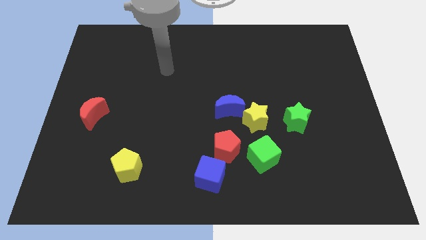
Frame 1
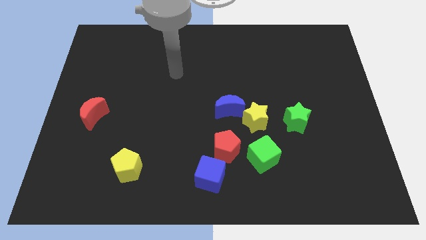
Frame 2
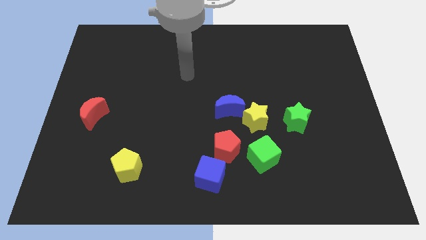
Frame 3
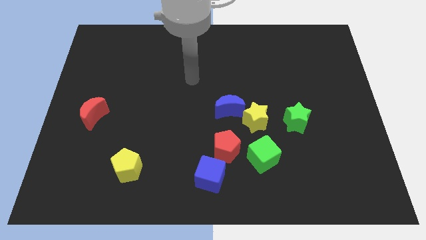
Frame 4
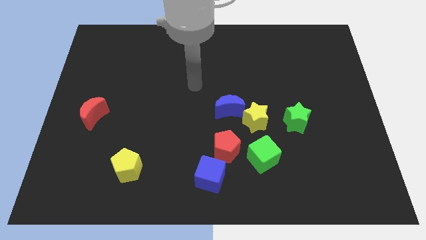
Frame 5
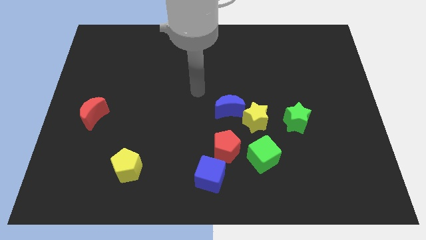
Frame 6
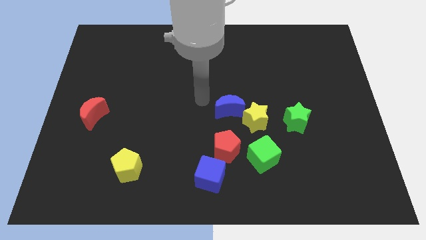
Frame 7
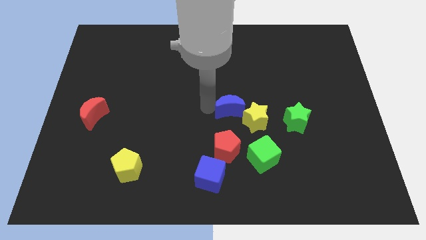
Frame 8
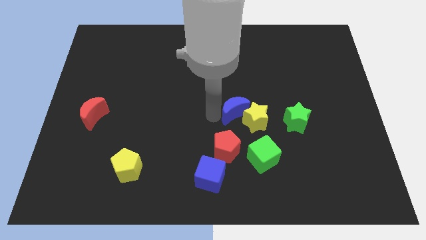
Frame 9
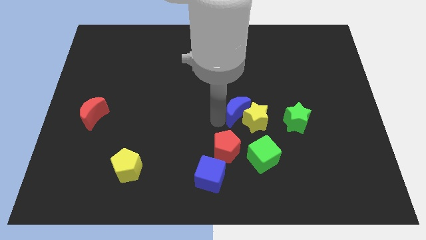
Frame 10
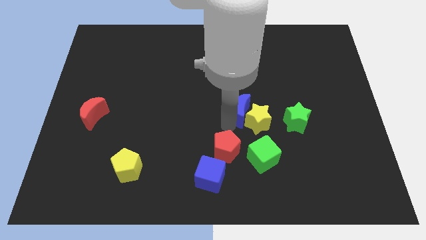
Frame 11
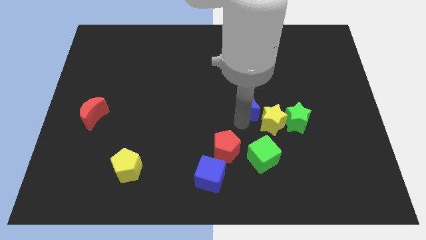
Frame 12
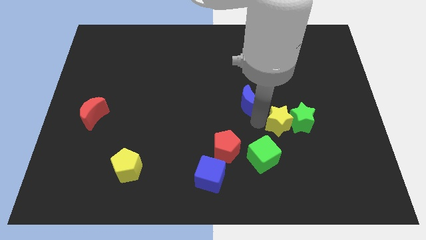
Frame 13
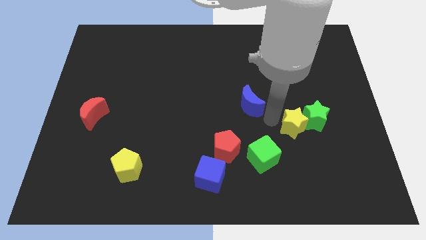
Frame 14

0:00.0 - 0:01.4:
pull the blue moon apart from the yellow star

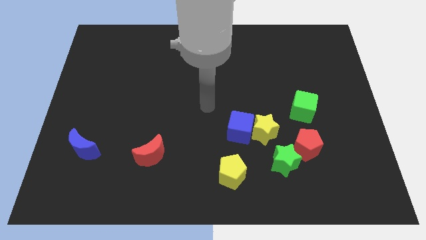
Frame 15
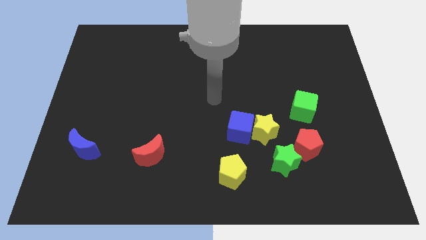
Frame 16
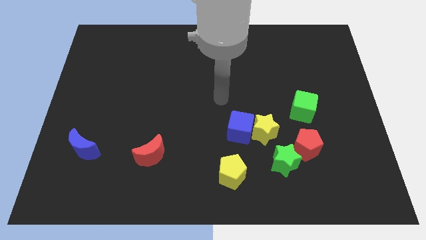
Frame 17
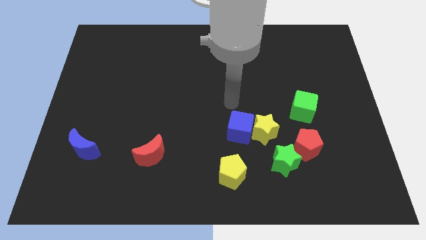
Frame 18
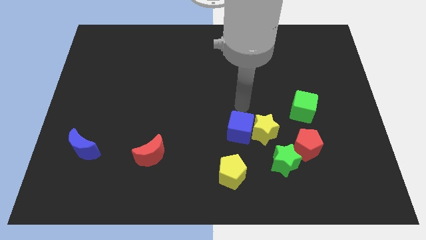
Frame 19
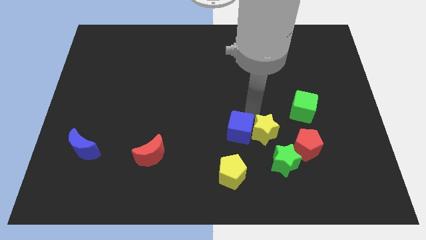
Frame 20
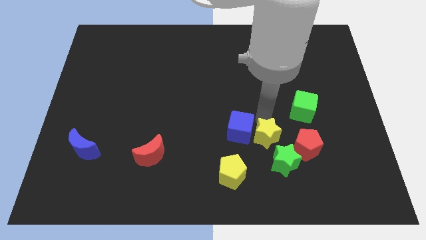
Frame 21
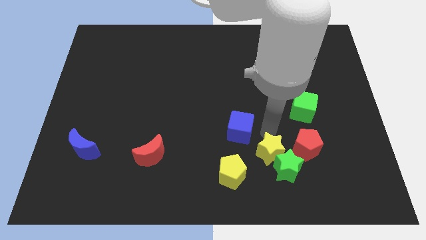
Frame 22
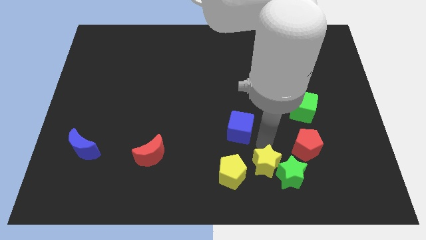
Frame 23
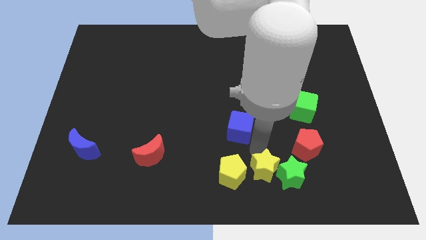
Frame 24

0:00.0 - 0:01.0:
separate the blue cube from the yellow star

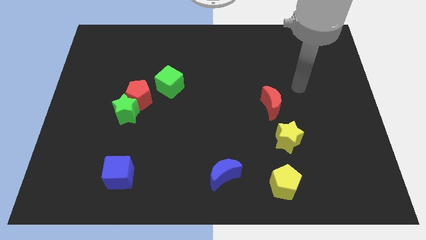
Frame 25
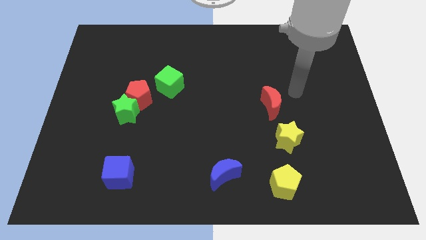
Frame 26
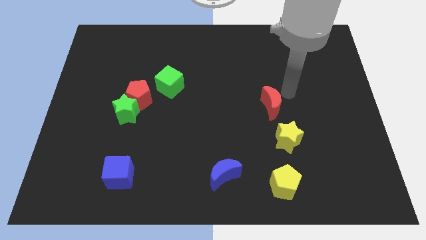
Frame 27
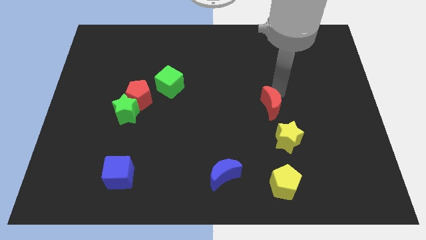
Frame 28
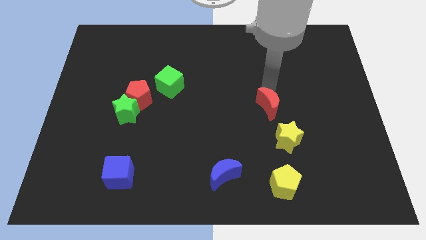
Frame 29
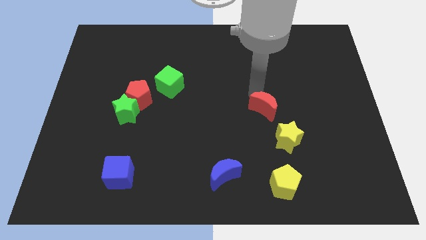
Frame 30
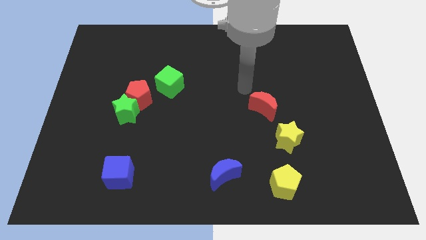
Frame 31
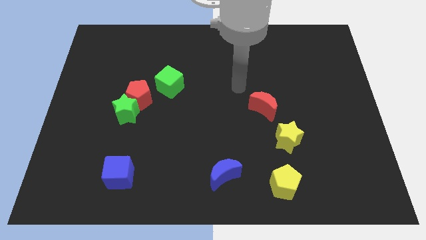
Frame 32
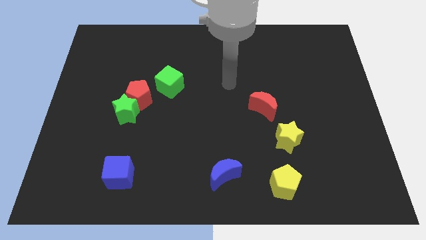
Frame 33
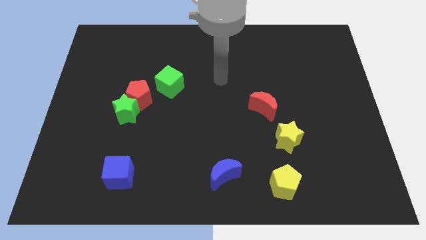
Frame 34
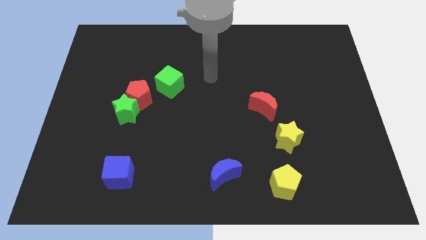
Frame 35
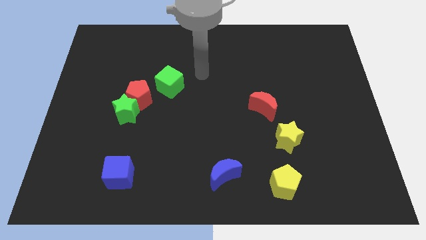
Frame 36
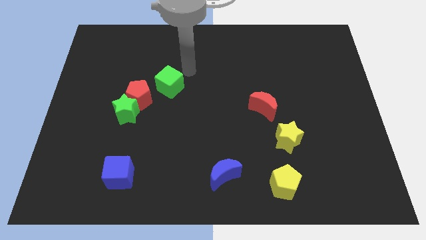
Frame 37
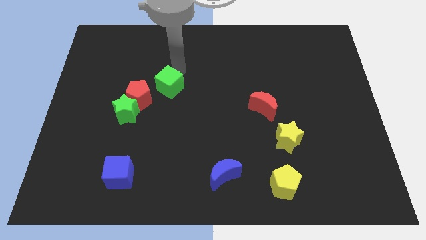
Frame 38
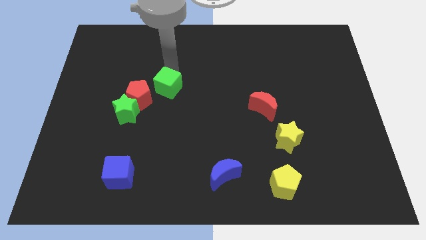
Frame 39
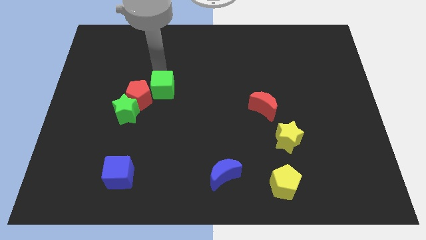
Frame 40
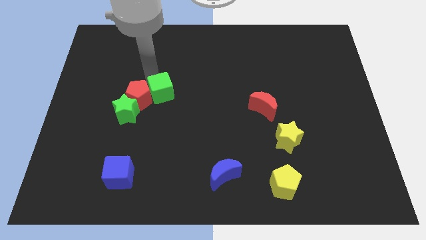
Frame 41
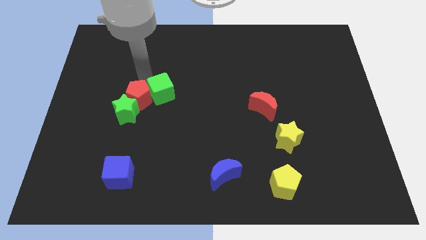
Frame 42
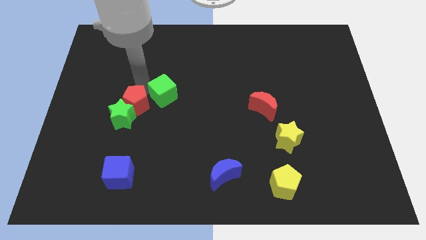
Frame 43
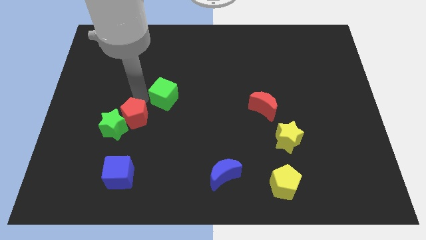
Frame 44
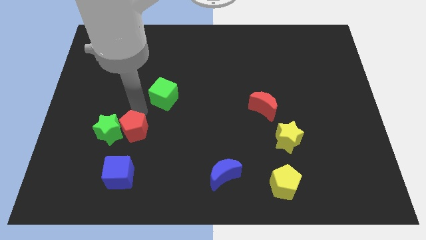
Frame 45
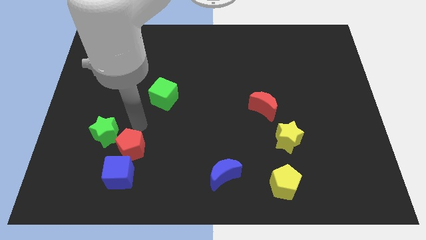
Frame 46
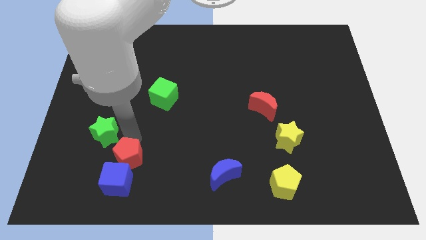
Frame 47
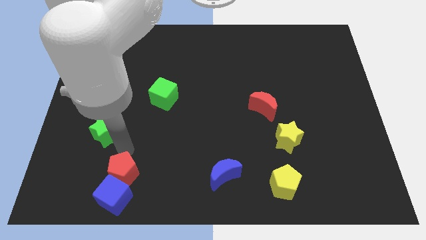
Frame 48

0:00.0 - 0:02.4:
separate the green star from the red pentagon

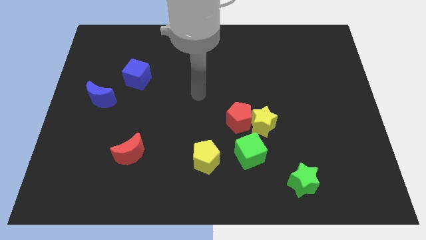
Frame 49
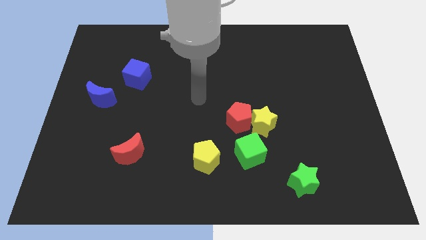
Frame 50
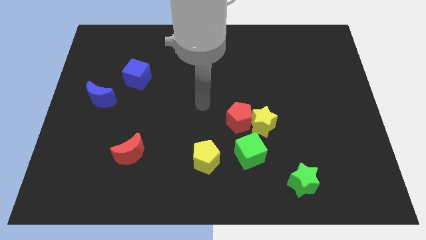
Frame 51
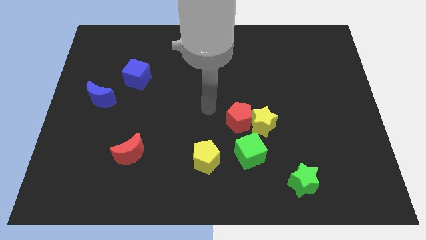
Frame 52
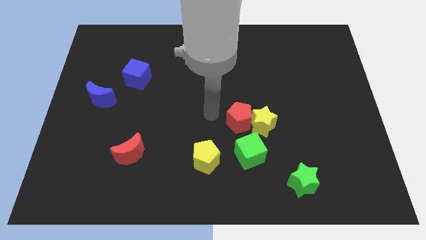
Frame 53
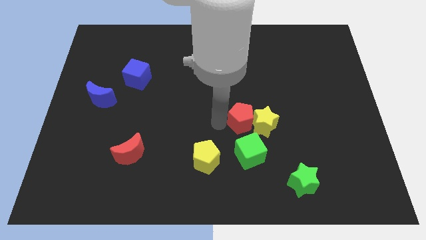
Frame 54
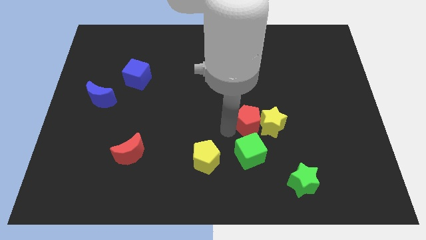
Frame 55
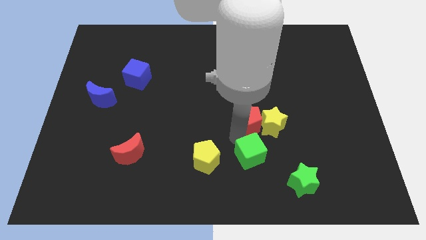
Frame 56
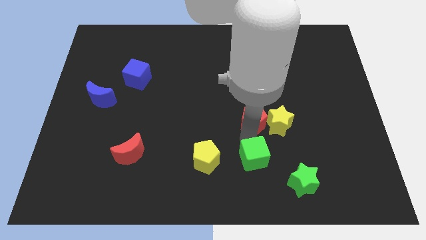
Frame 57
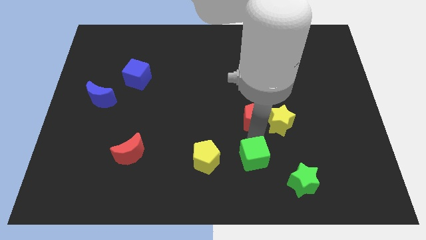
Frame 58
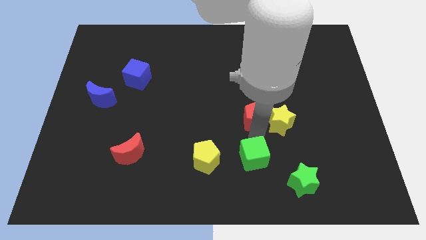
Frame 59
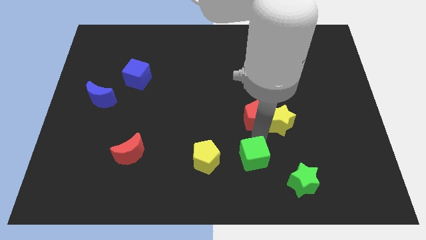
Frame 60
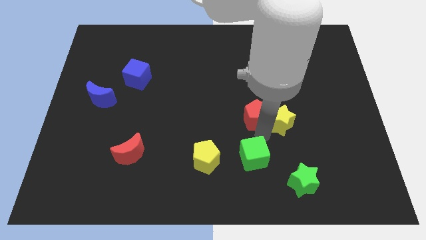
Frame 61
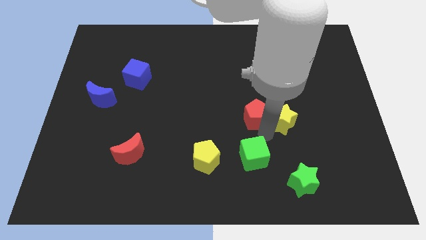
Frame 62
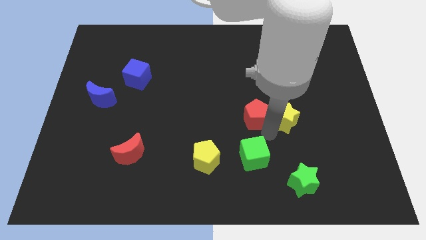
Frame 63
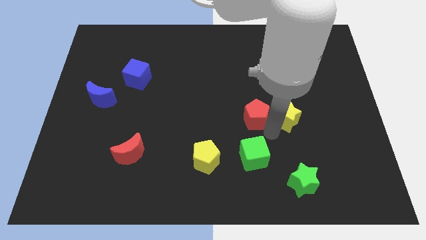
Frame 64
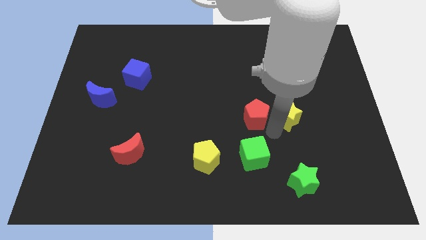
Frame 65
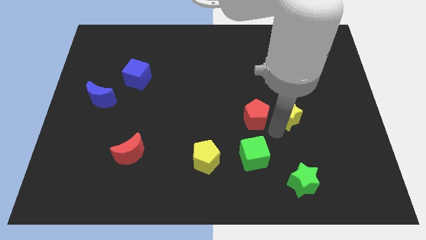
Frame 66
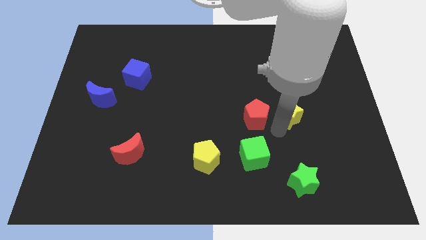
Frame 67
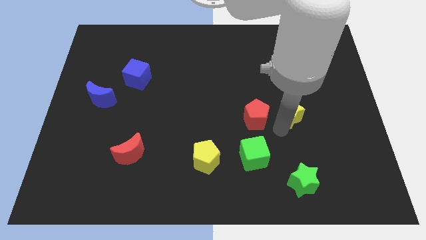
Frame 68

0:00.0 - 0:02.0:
separate the yellow star from the red pentagon and green cube

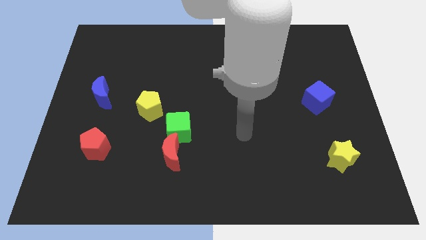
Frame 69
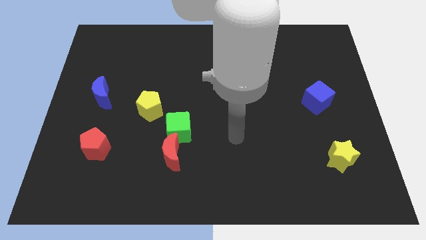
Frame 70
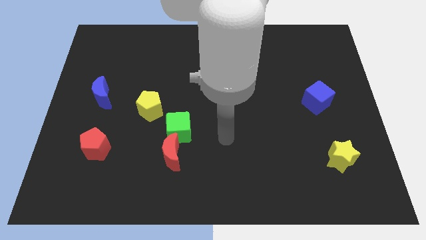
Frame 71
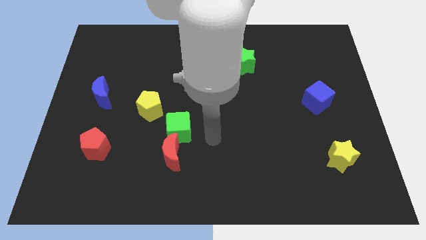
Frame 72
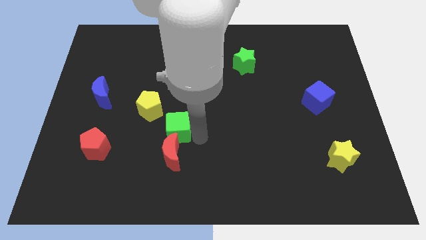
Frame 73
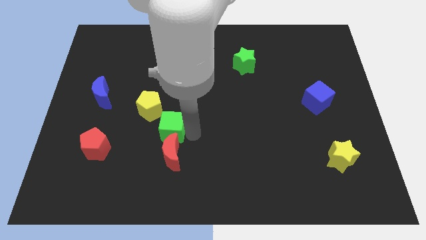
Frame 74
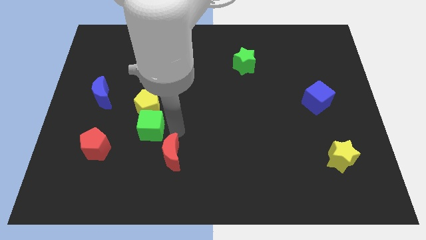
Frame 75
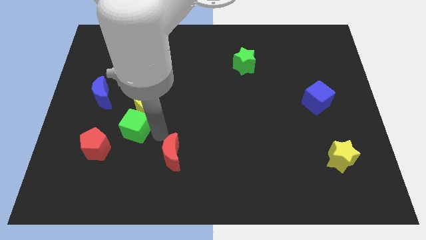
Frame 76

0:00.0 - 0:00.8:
move the red moon away from the green cube

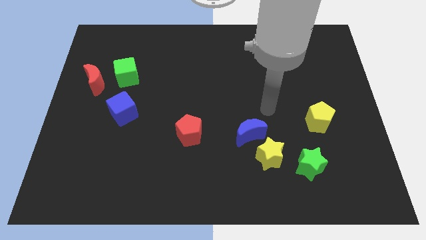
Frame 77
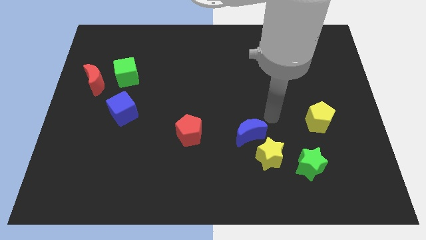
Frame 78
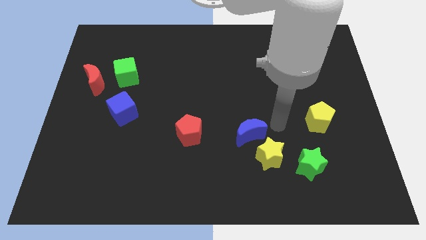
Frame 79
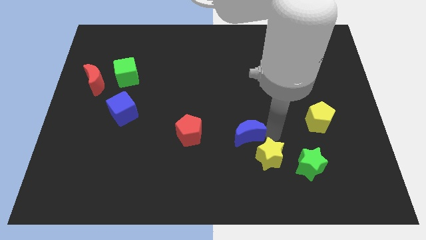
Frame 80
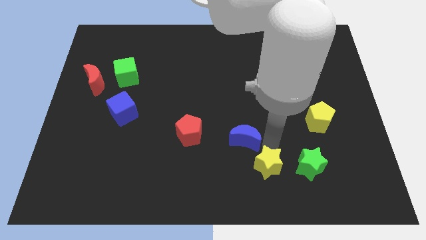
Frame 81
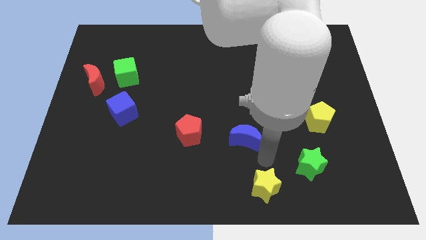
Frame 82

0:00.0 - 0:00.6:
separate the blue moon from the yellow star

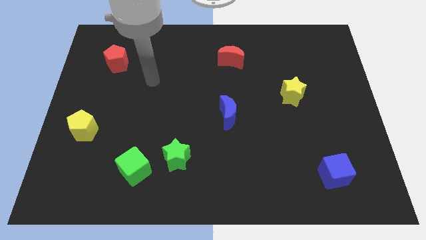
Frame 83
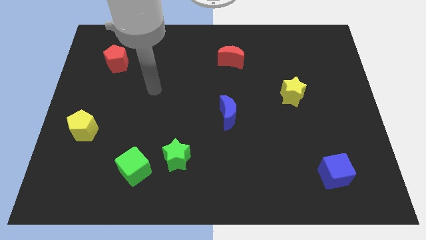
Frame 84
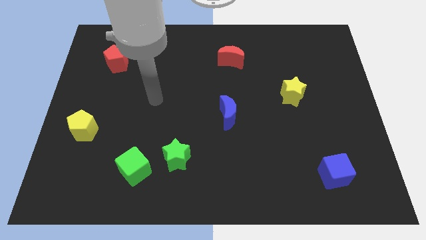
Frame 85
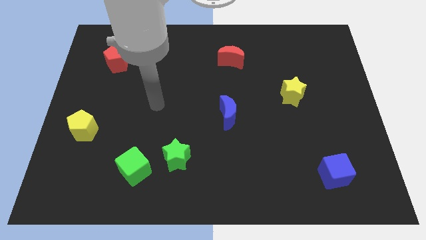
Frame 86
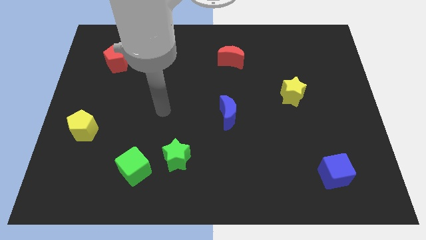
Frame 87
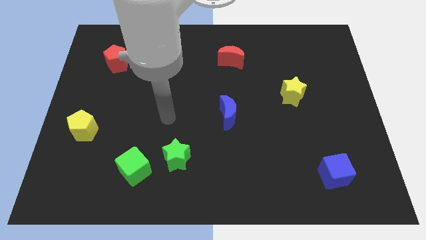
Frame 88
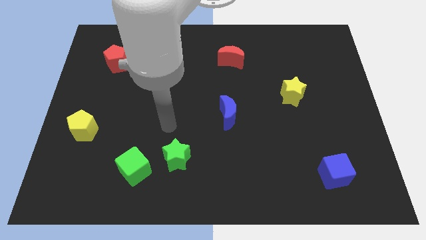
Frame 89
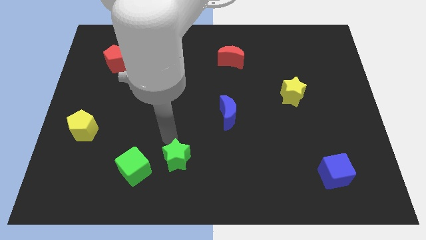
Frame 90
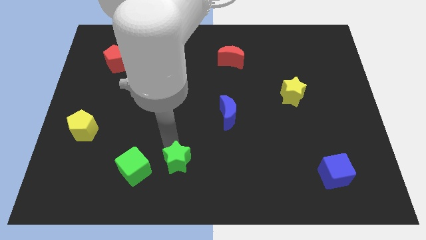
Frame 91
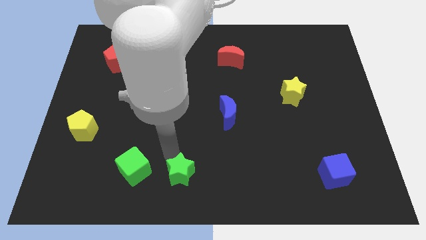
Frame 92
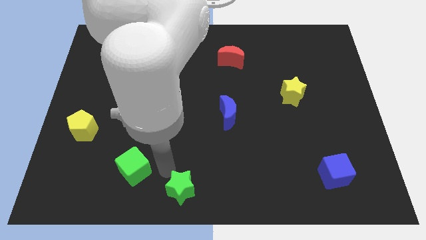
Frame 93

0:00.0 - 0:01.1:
pull the green cube apart from the green star
